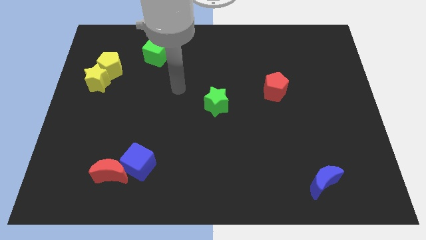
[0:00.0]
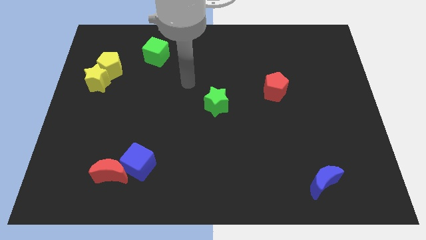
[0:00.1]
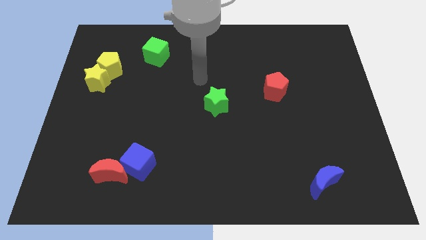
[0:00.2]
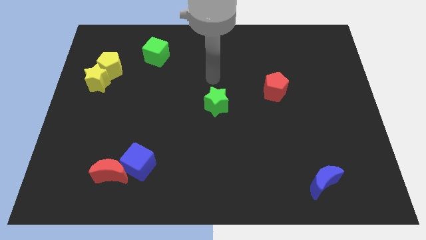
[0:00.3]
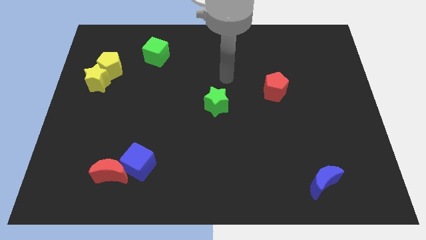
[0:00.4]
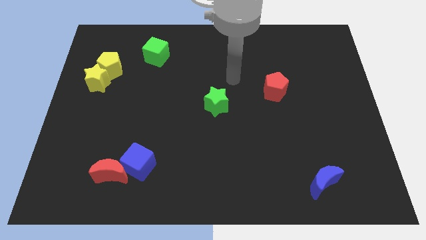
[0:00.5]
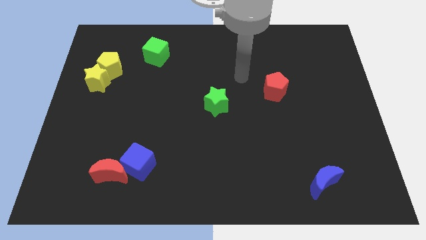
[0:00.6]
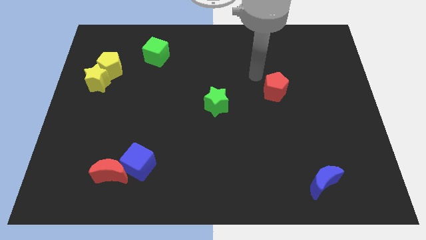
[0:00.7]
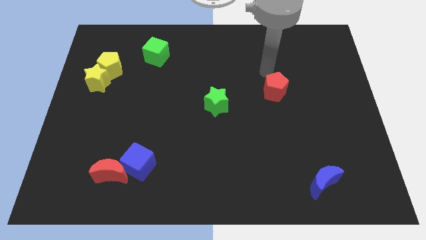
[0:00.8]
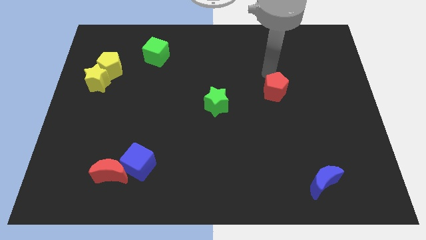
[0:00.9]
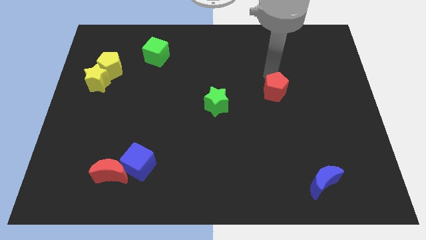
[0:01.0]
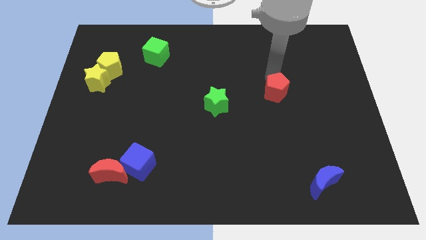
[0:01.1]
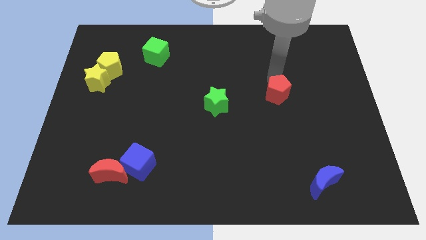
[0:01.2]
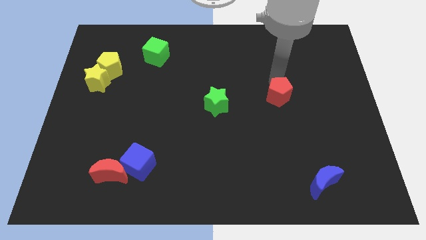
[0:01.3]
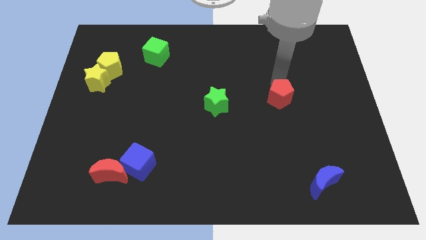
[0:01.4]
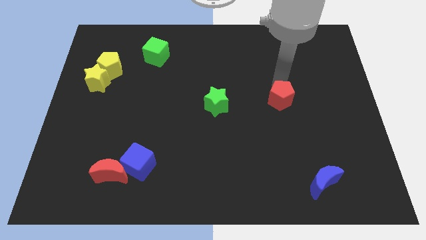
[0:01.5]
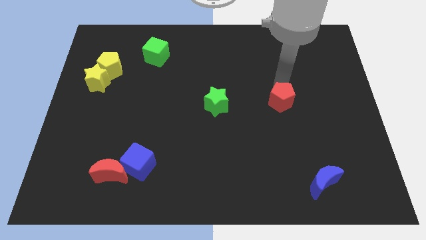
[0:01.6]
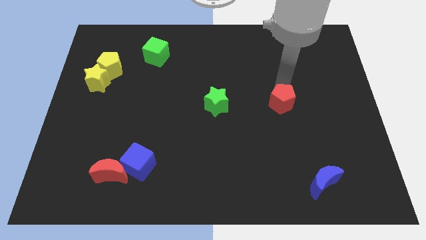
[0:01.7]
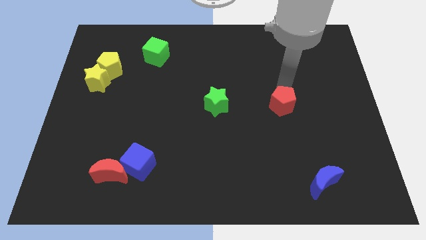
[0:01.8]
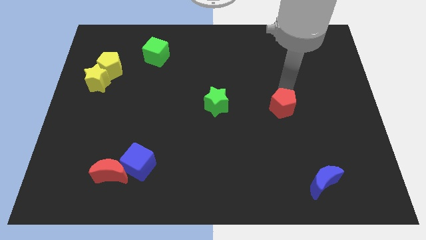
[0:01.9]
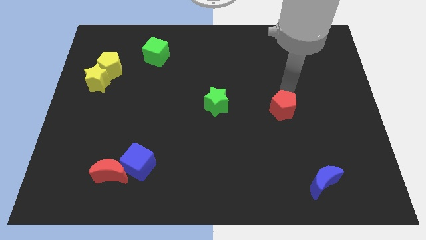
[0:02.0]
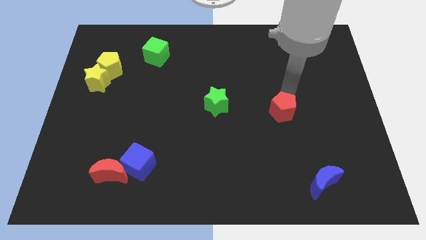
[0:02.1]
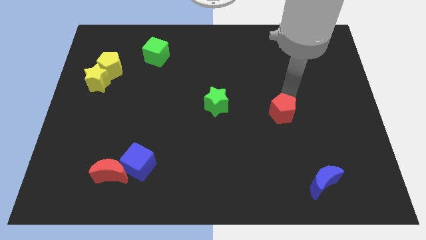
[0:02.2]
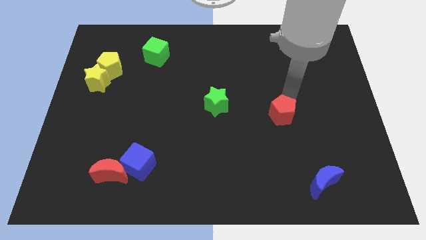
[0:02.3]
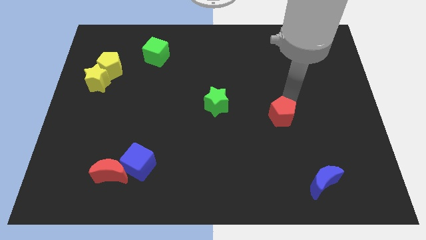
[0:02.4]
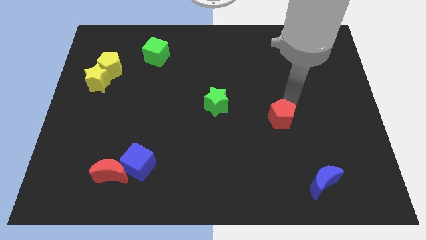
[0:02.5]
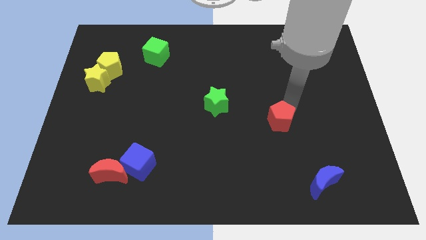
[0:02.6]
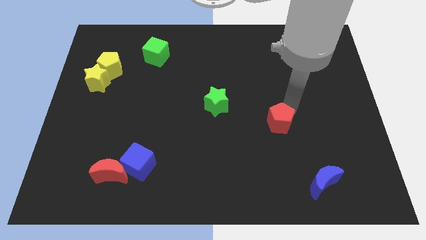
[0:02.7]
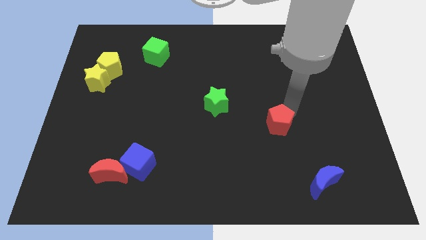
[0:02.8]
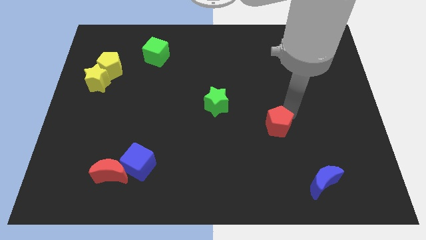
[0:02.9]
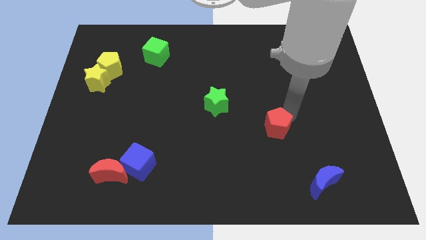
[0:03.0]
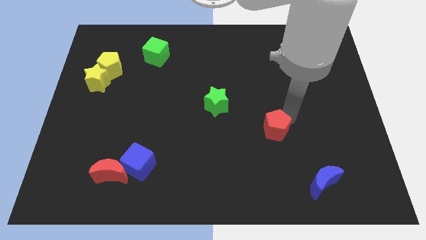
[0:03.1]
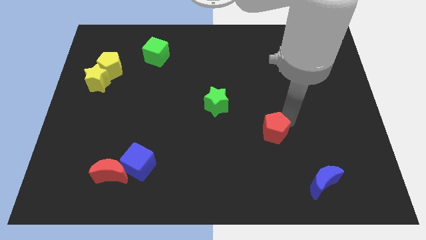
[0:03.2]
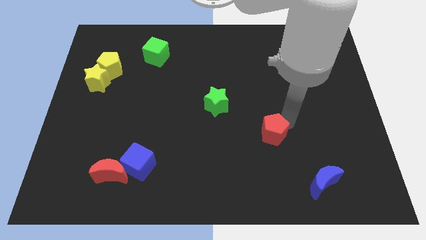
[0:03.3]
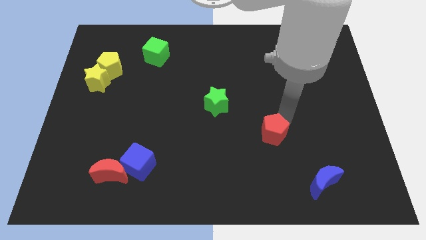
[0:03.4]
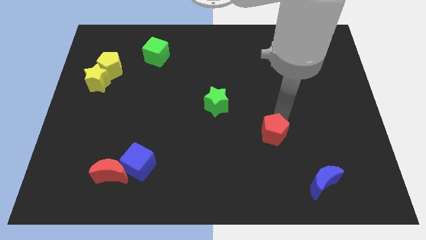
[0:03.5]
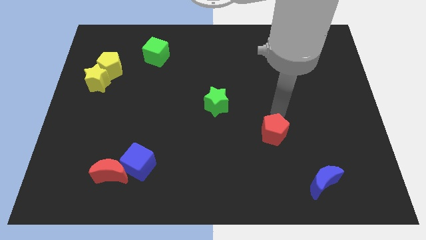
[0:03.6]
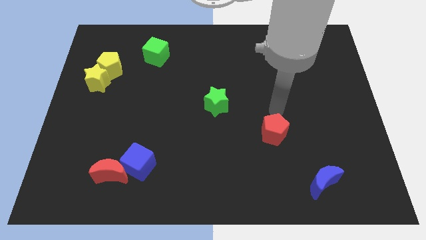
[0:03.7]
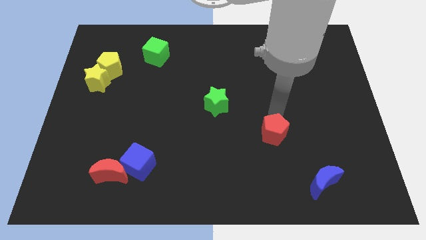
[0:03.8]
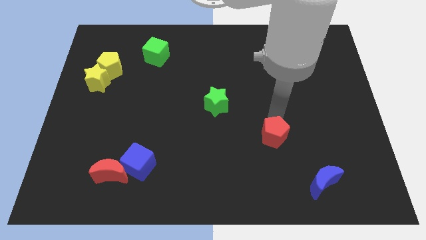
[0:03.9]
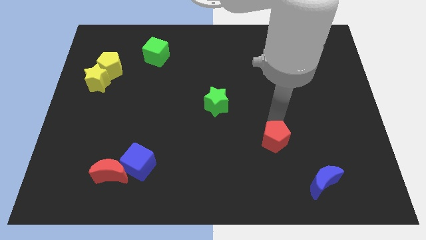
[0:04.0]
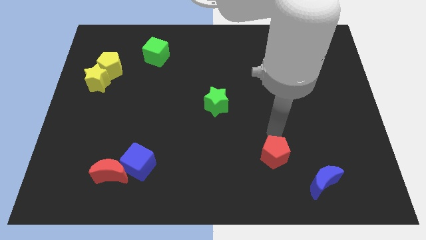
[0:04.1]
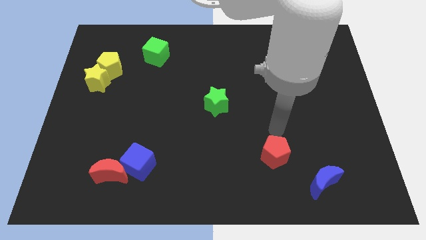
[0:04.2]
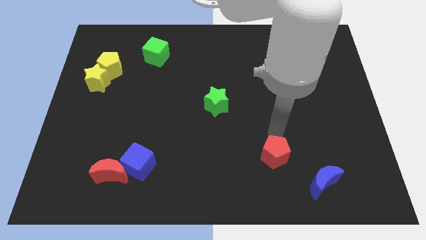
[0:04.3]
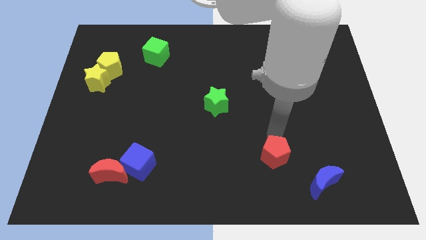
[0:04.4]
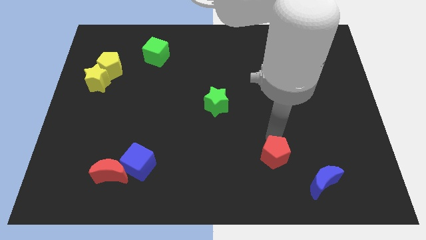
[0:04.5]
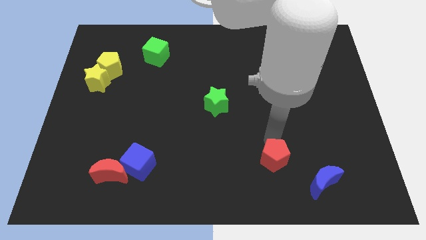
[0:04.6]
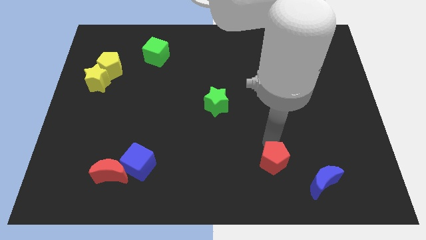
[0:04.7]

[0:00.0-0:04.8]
put the red pentagon left of the blue moon

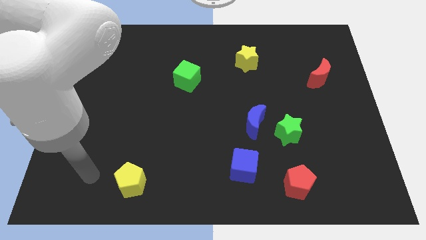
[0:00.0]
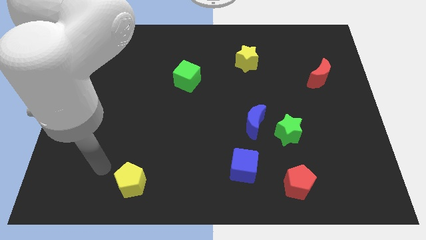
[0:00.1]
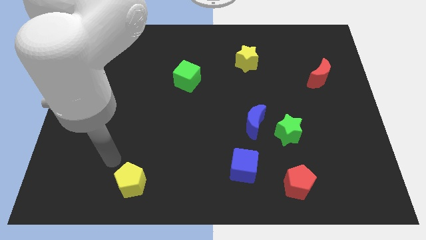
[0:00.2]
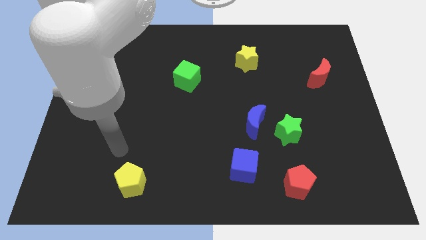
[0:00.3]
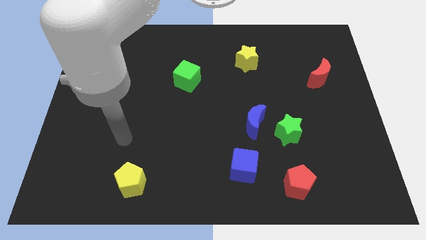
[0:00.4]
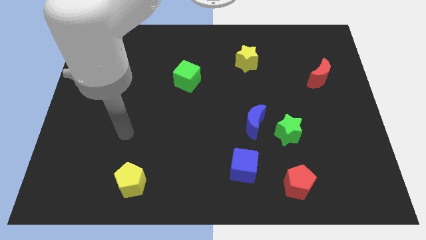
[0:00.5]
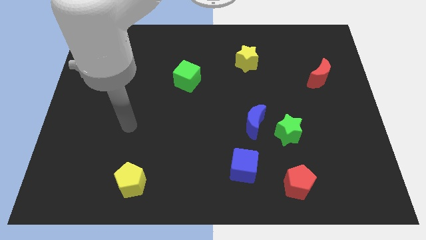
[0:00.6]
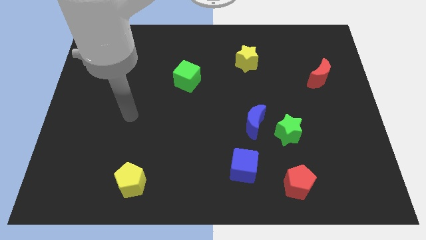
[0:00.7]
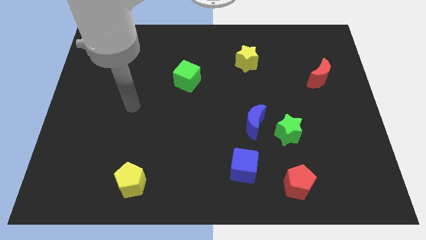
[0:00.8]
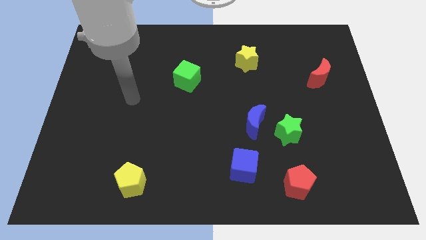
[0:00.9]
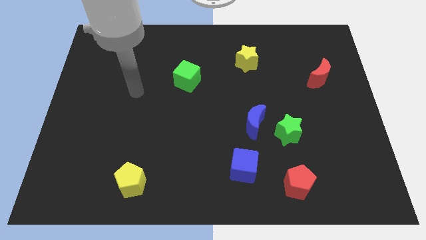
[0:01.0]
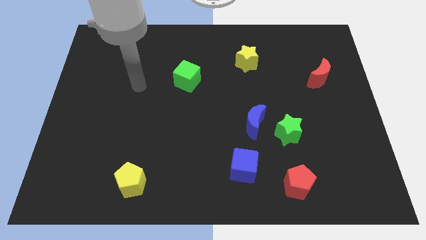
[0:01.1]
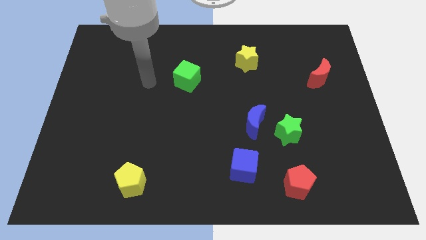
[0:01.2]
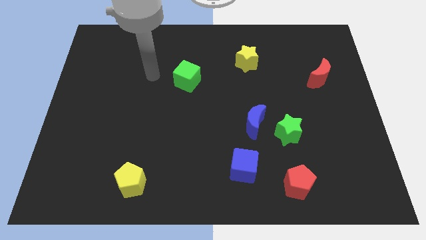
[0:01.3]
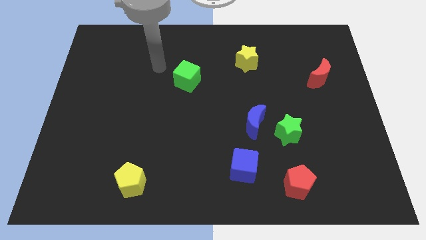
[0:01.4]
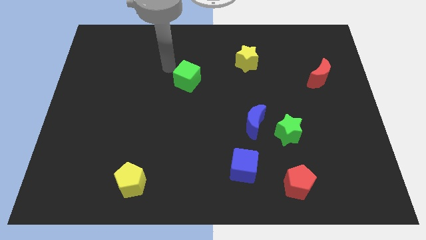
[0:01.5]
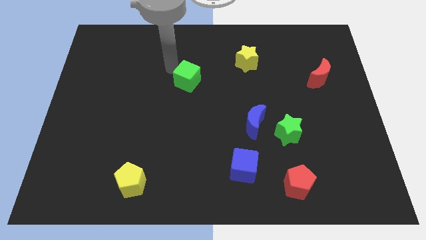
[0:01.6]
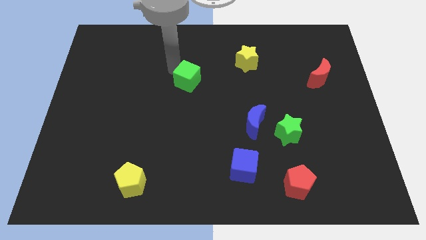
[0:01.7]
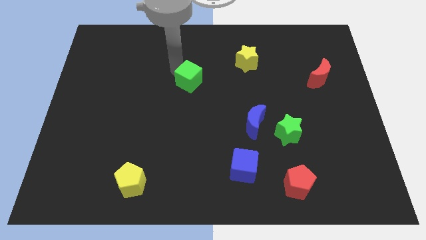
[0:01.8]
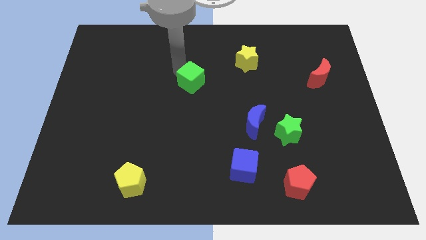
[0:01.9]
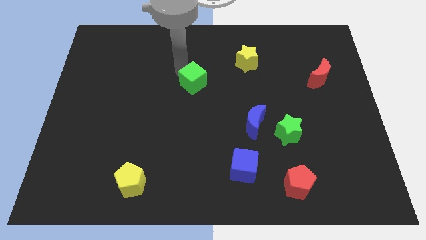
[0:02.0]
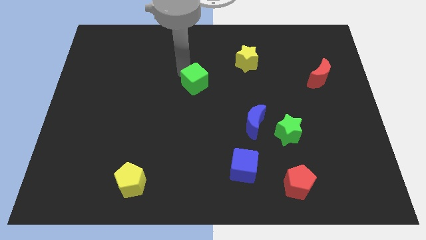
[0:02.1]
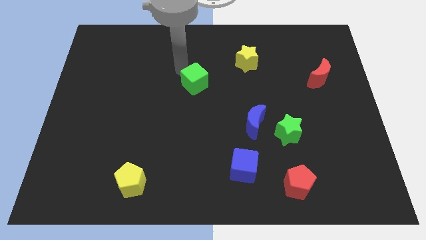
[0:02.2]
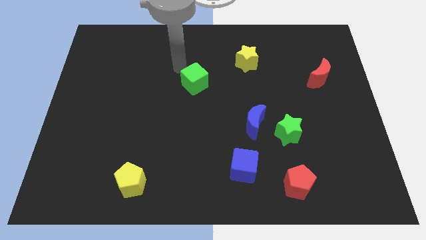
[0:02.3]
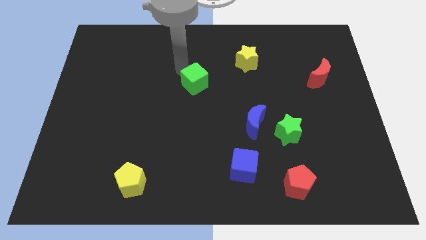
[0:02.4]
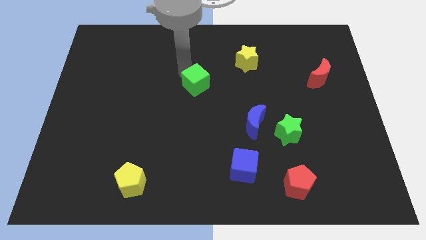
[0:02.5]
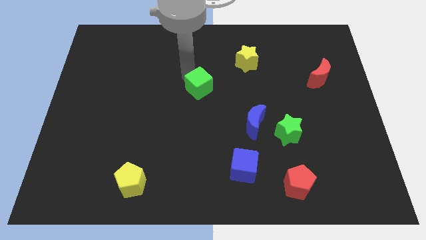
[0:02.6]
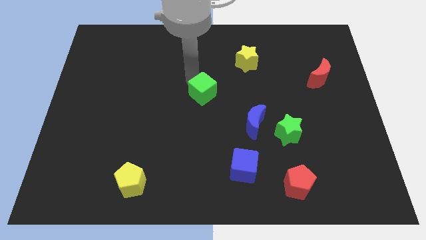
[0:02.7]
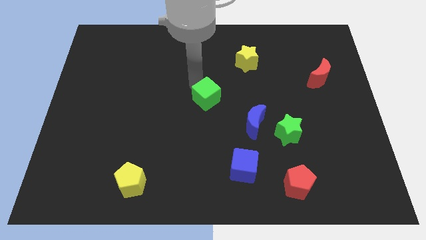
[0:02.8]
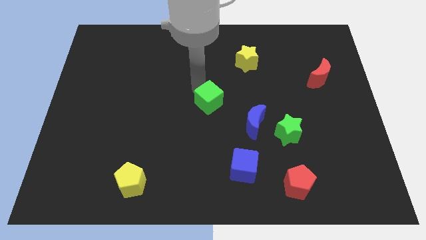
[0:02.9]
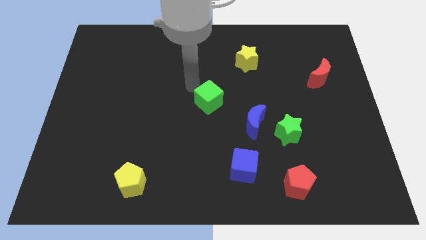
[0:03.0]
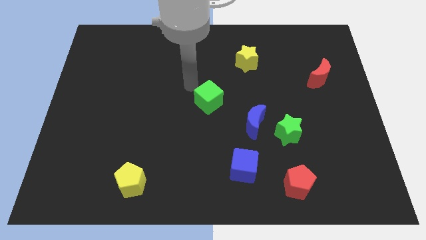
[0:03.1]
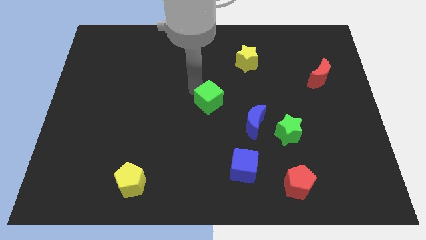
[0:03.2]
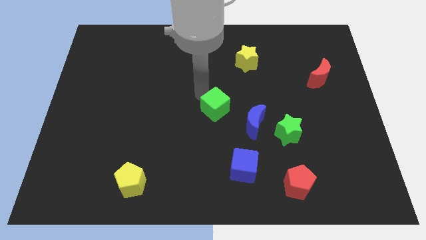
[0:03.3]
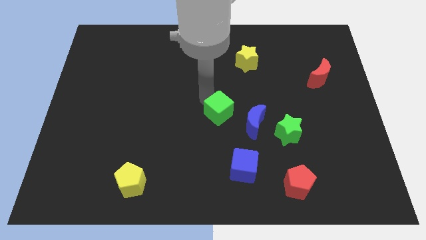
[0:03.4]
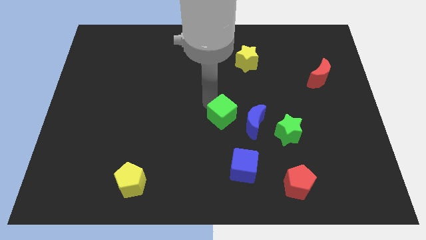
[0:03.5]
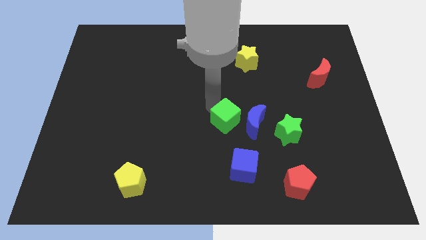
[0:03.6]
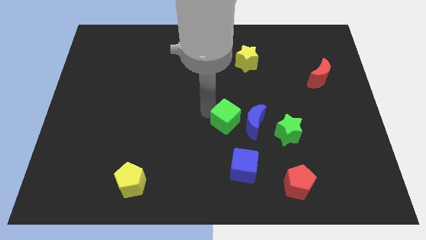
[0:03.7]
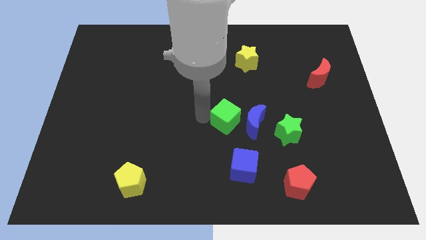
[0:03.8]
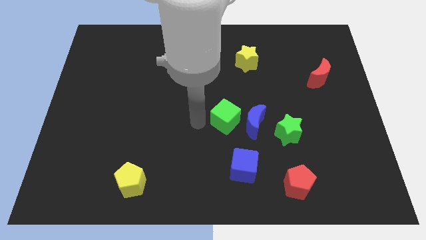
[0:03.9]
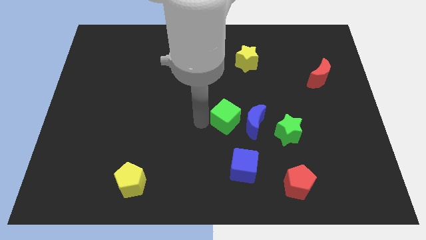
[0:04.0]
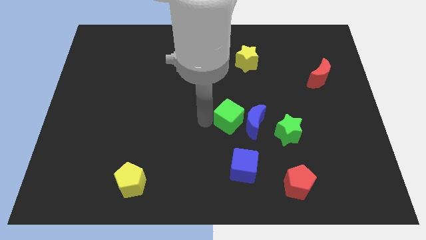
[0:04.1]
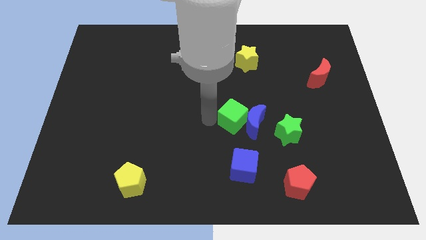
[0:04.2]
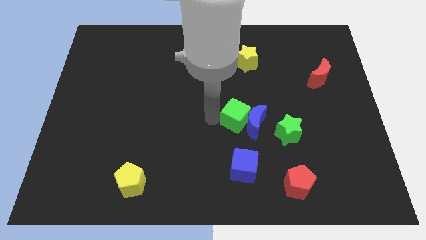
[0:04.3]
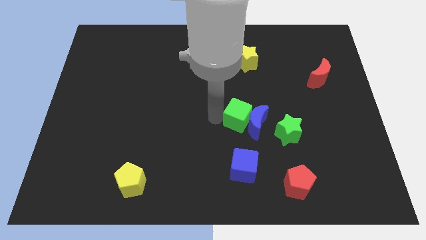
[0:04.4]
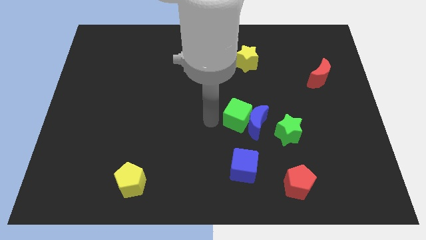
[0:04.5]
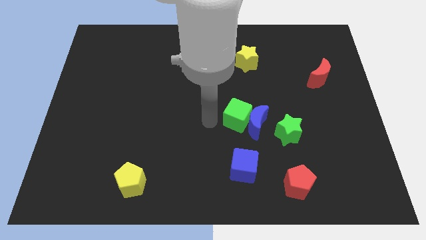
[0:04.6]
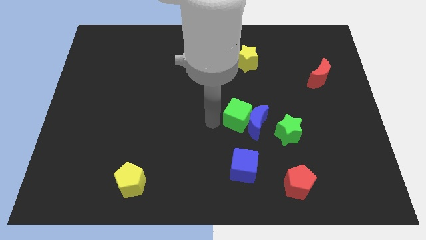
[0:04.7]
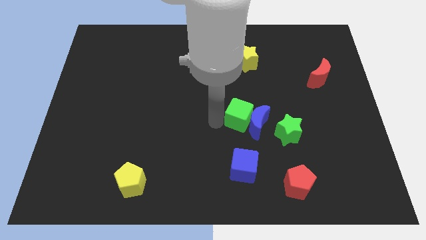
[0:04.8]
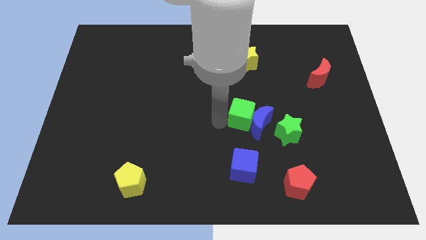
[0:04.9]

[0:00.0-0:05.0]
slide the green cube to the top left side of the green star
